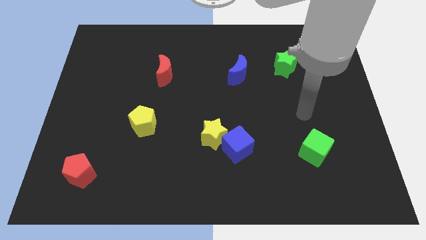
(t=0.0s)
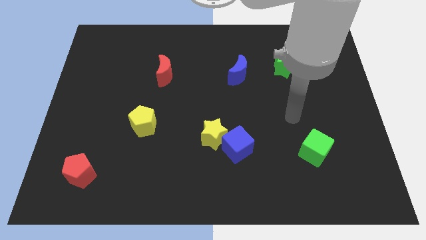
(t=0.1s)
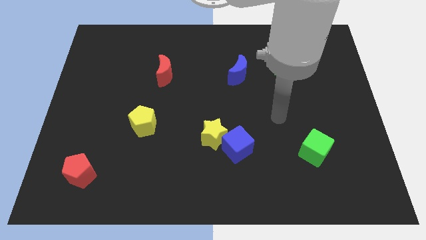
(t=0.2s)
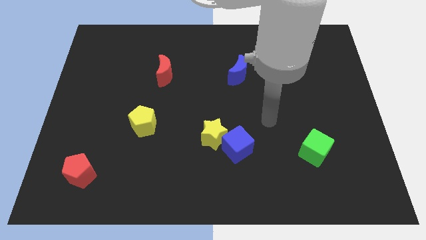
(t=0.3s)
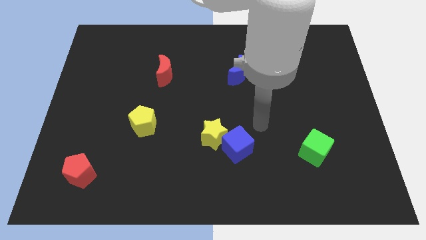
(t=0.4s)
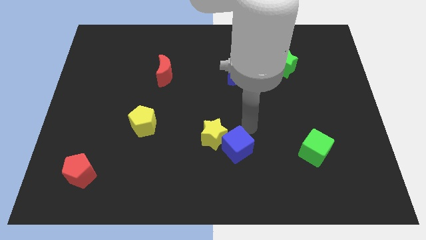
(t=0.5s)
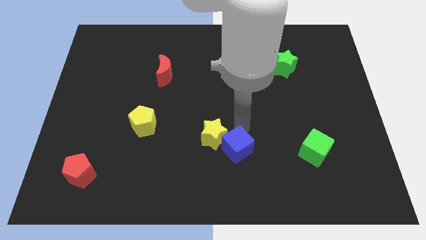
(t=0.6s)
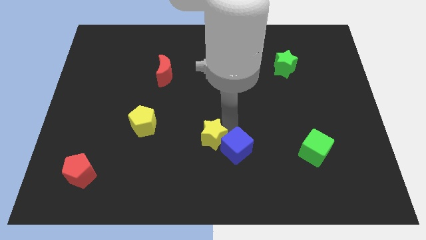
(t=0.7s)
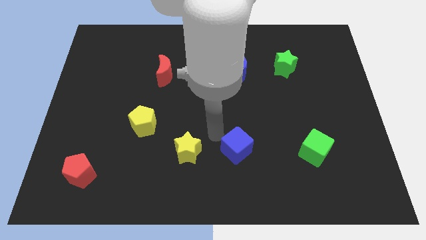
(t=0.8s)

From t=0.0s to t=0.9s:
pull the blue cube apart from the yellow star

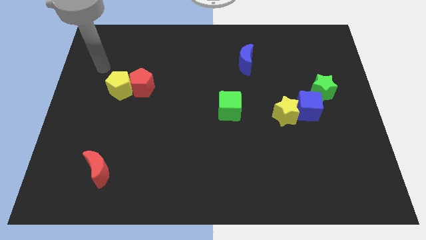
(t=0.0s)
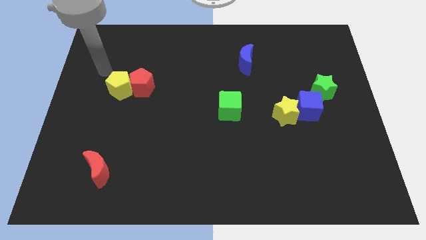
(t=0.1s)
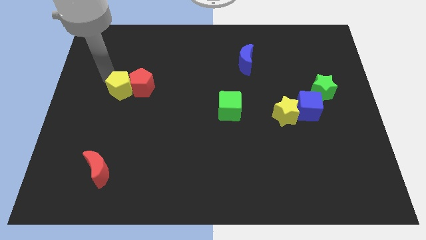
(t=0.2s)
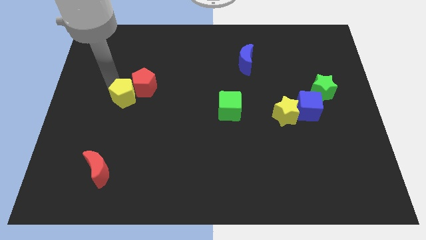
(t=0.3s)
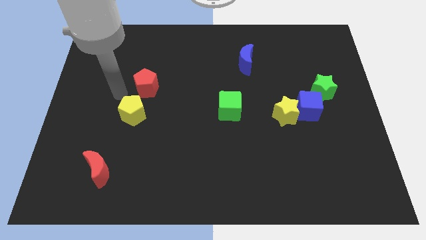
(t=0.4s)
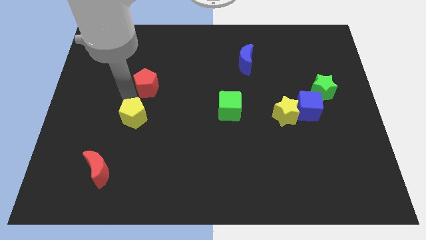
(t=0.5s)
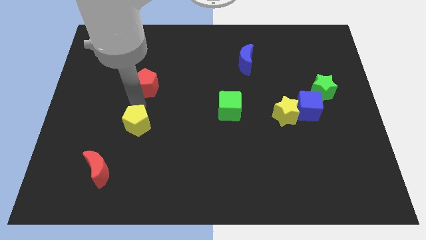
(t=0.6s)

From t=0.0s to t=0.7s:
pull the red pentagon apart from the yellow pentagon

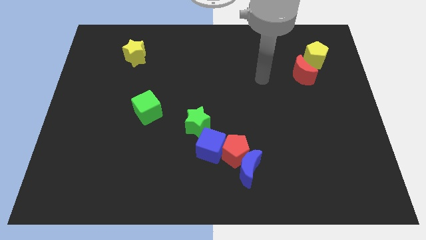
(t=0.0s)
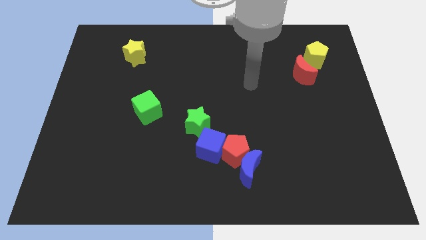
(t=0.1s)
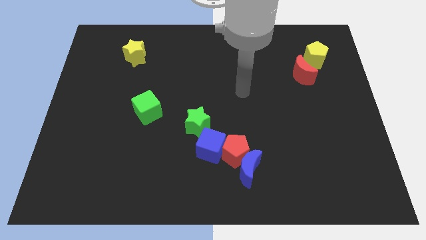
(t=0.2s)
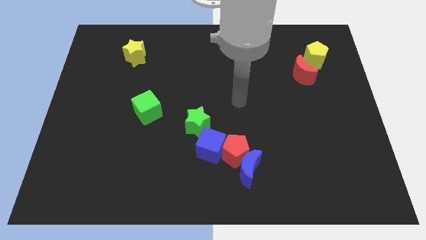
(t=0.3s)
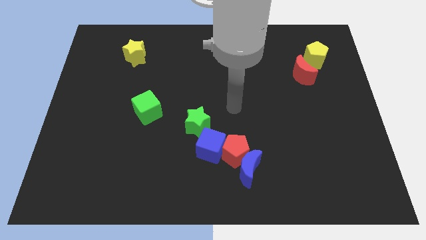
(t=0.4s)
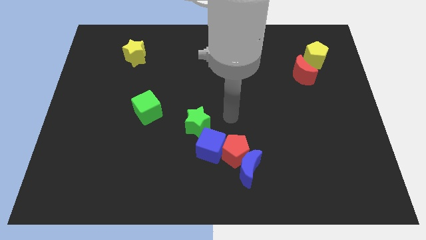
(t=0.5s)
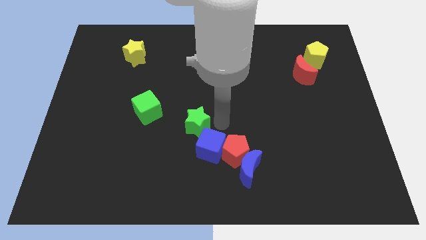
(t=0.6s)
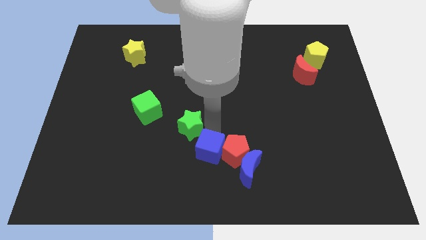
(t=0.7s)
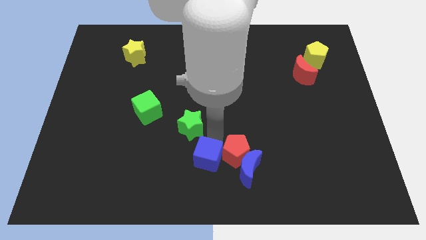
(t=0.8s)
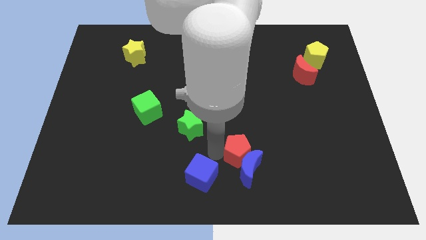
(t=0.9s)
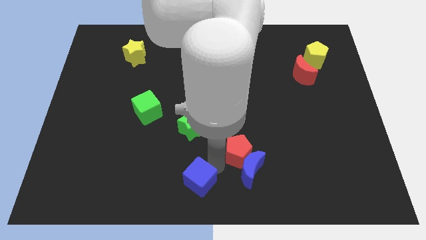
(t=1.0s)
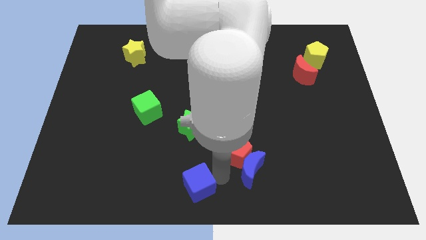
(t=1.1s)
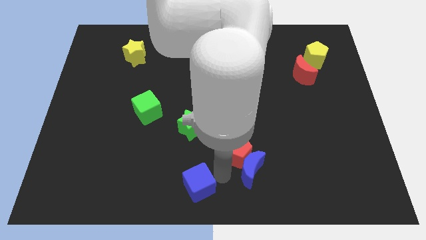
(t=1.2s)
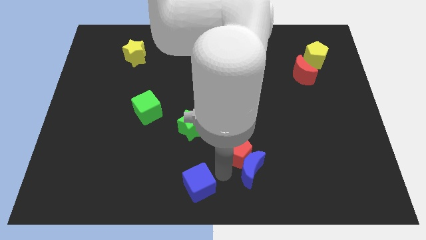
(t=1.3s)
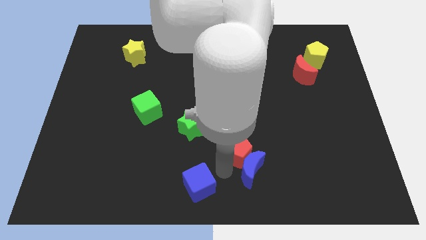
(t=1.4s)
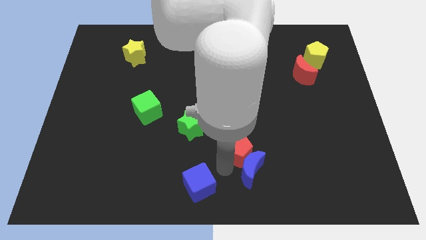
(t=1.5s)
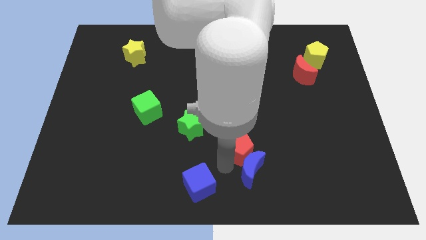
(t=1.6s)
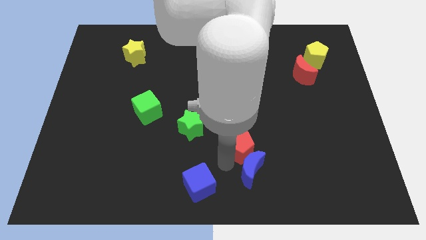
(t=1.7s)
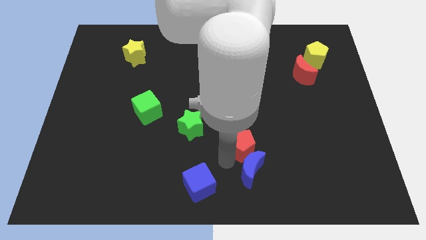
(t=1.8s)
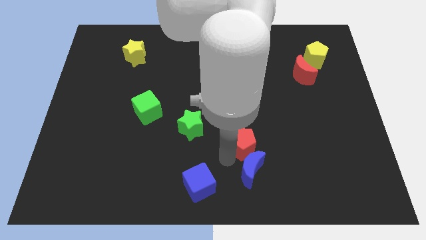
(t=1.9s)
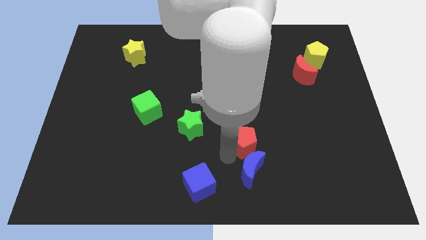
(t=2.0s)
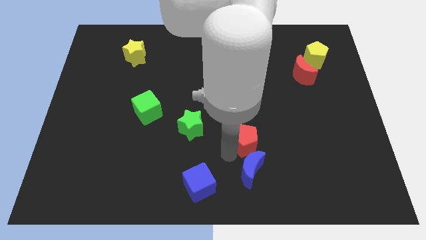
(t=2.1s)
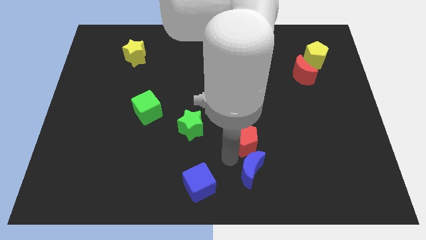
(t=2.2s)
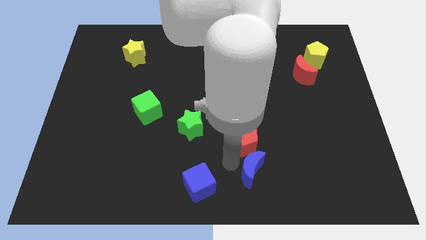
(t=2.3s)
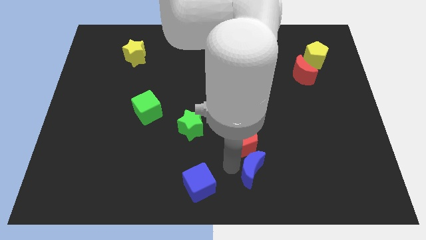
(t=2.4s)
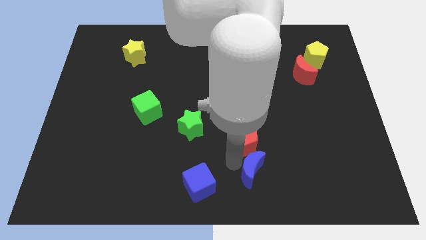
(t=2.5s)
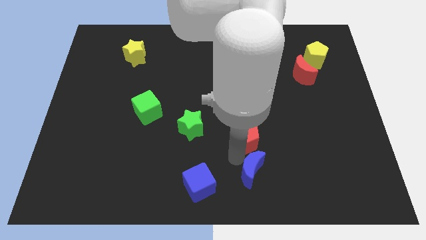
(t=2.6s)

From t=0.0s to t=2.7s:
move the red pentagon away from the blue moon and blue cube

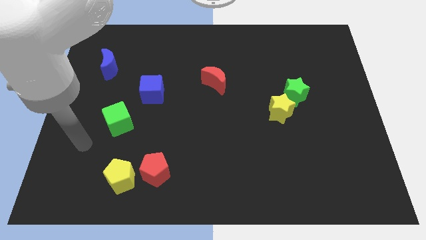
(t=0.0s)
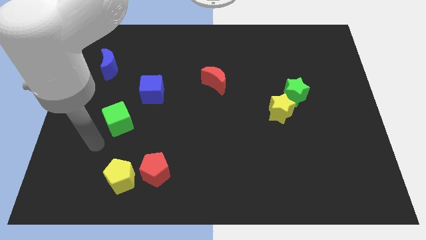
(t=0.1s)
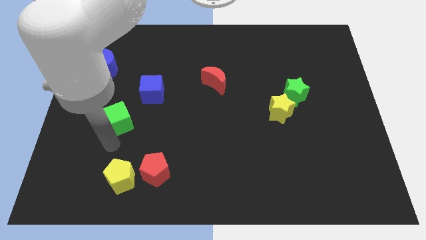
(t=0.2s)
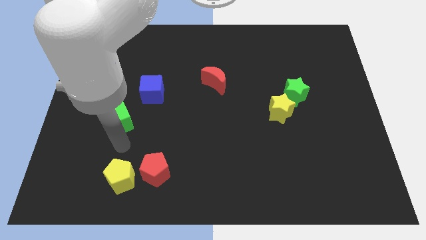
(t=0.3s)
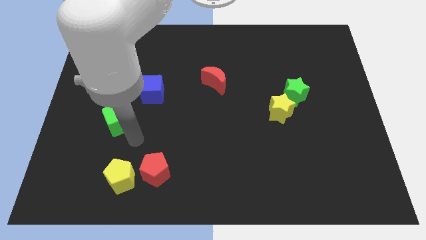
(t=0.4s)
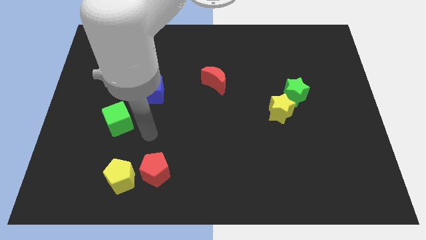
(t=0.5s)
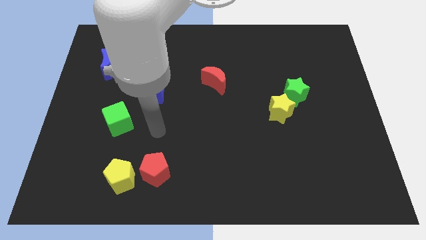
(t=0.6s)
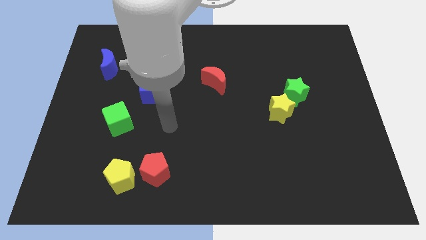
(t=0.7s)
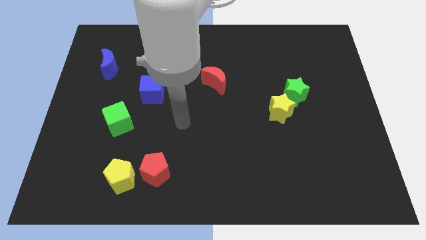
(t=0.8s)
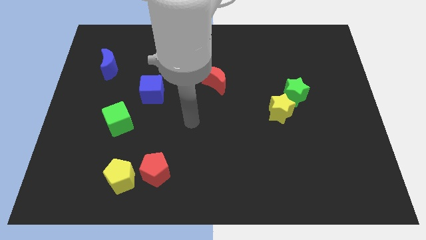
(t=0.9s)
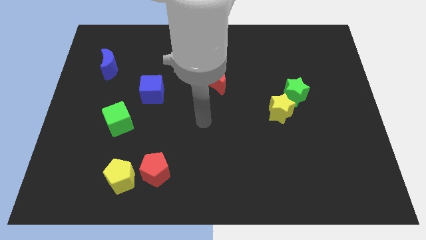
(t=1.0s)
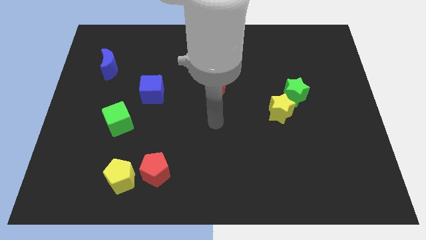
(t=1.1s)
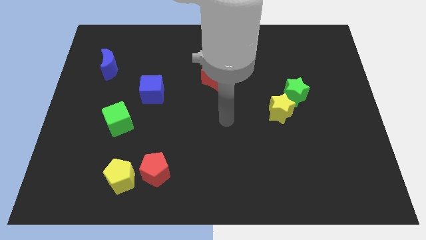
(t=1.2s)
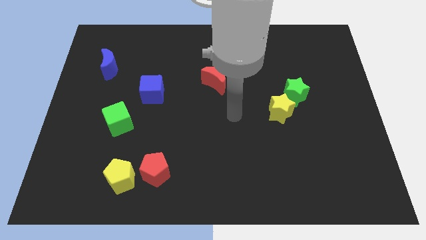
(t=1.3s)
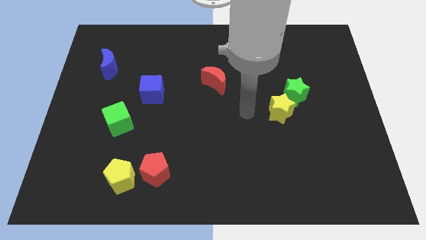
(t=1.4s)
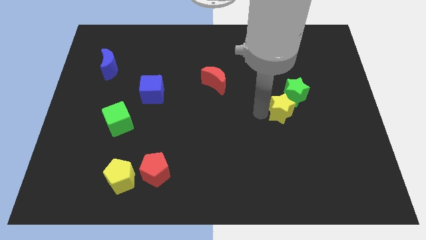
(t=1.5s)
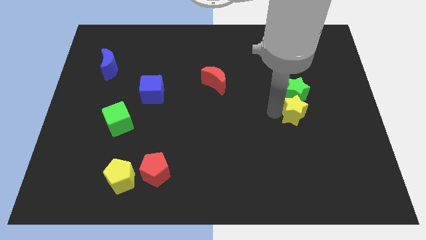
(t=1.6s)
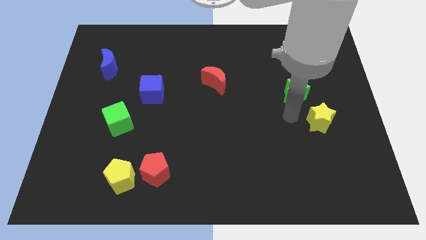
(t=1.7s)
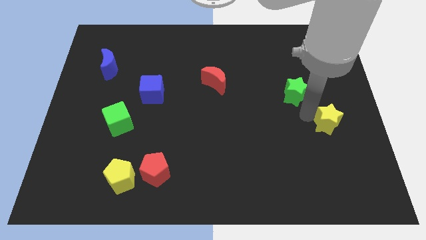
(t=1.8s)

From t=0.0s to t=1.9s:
move the green star away from the yellow star

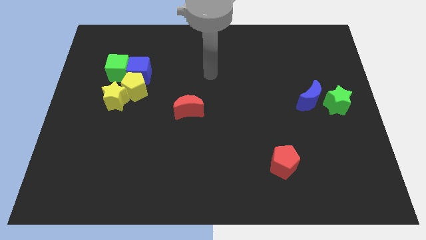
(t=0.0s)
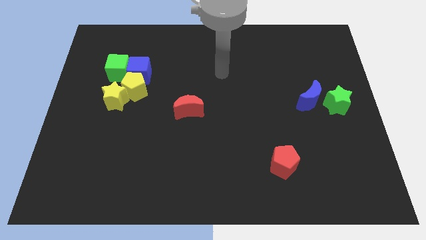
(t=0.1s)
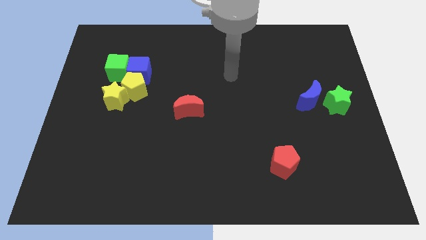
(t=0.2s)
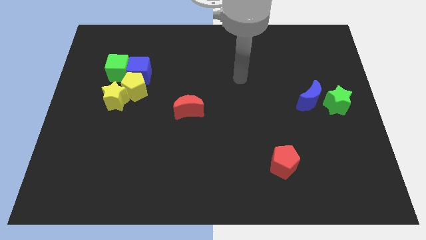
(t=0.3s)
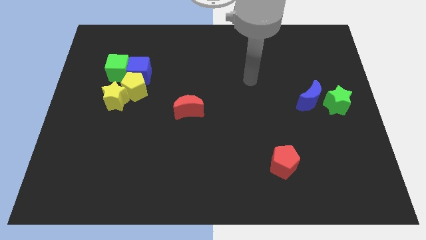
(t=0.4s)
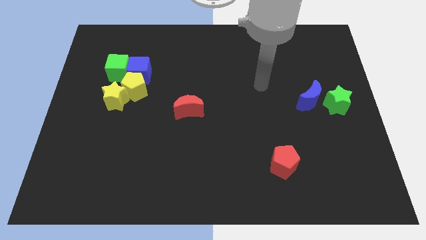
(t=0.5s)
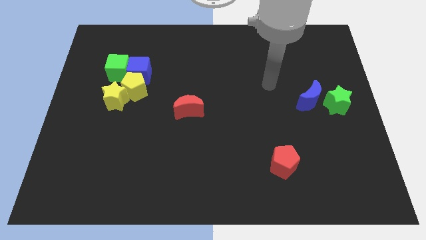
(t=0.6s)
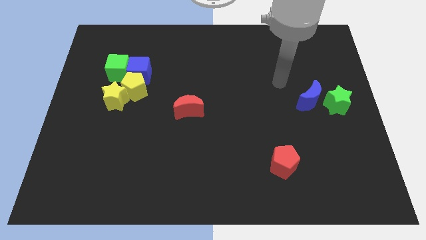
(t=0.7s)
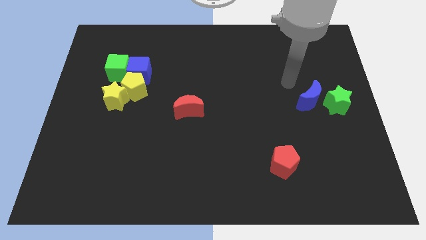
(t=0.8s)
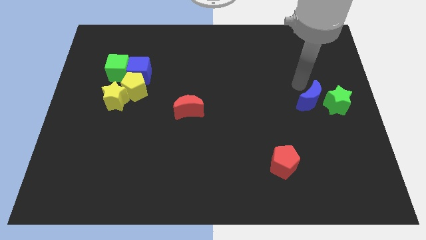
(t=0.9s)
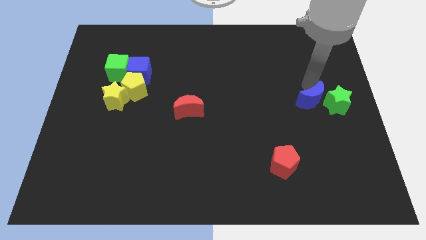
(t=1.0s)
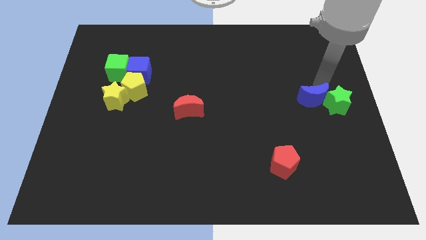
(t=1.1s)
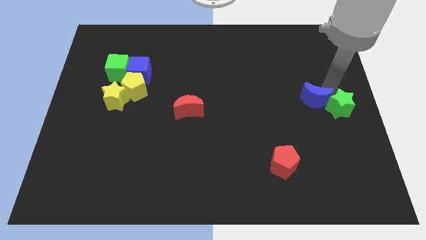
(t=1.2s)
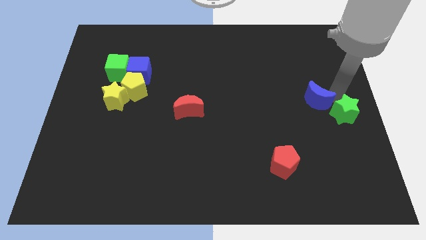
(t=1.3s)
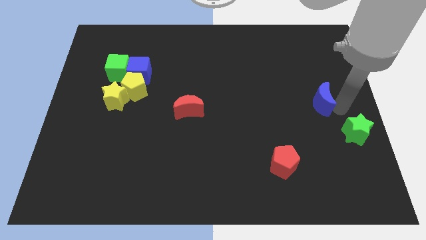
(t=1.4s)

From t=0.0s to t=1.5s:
separate the blue moon from the green star

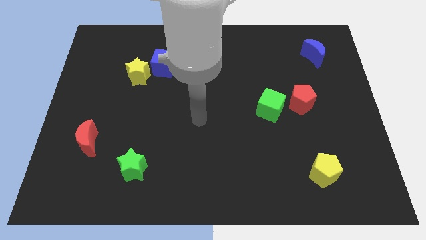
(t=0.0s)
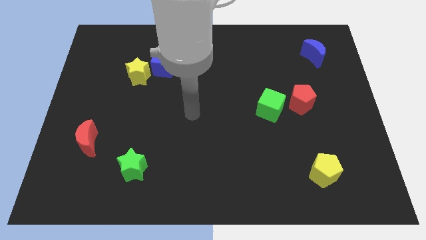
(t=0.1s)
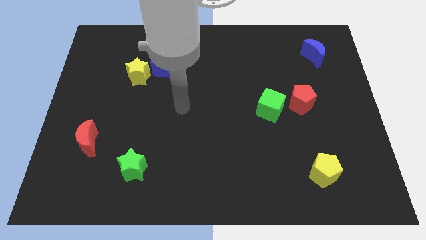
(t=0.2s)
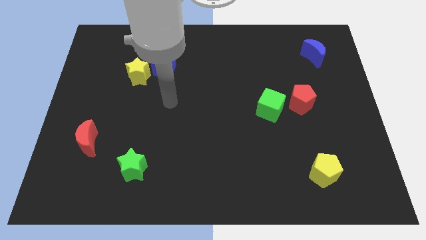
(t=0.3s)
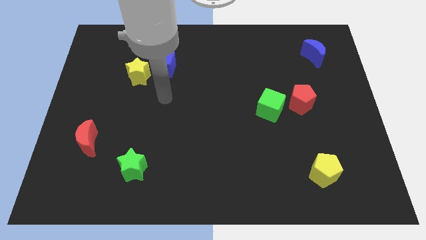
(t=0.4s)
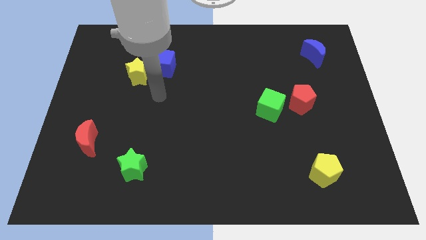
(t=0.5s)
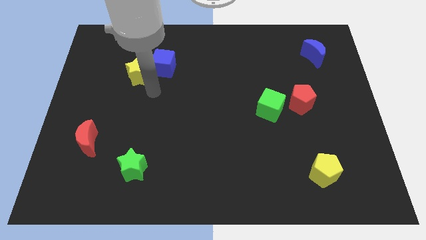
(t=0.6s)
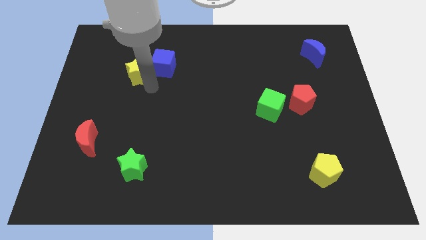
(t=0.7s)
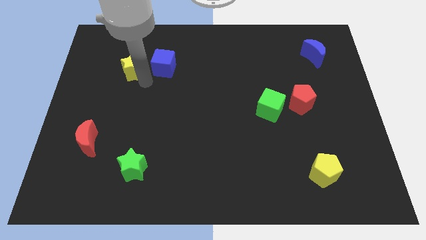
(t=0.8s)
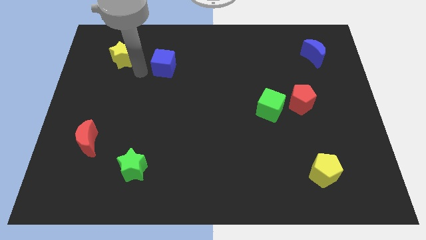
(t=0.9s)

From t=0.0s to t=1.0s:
move the blue cube away from the yellow star

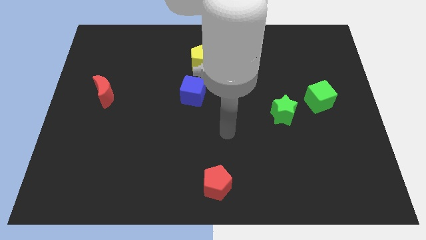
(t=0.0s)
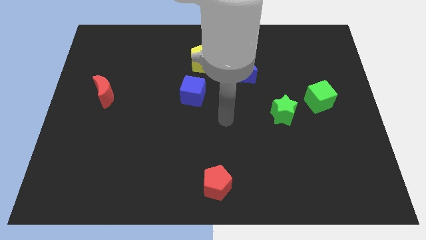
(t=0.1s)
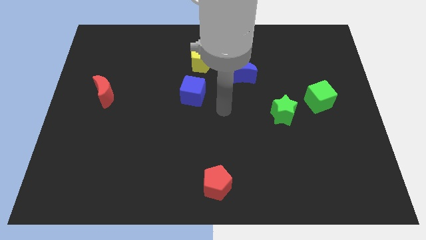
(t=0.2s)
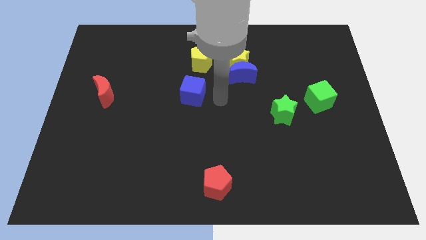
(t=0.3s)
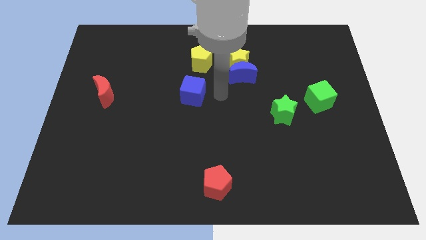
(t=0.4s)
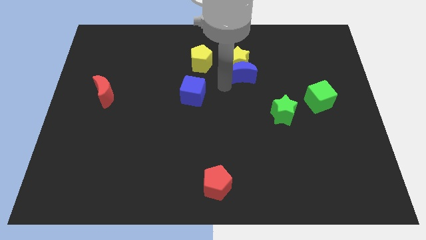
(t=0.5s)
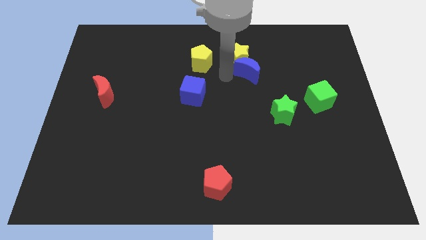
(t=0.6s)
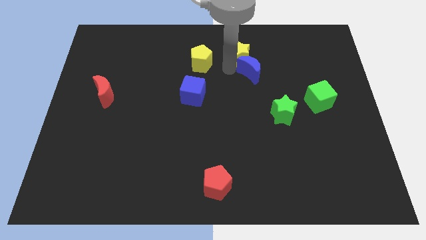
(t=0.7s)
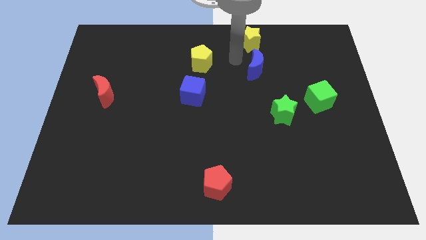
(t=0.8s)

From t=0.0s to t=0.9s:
move the blue moon away from the yellow star
